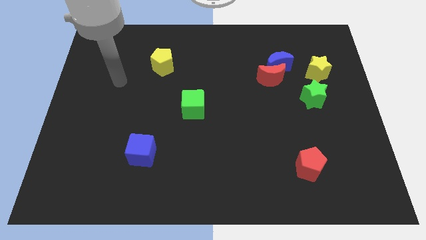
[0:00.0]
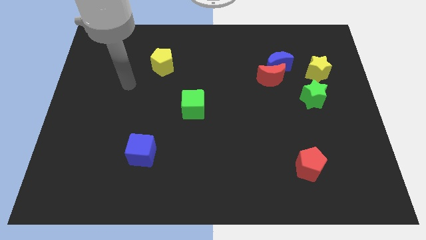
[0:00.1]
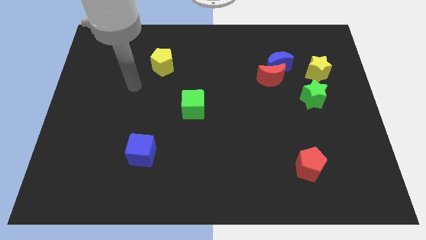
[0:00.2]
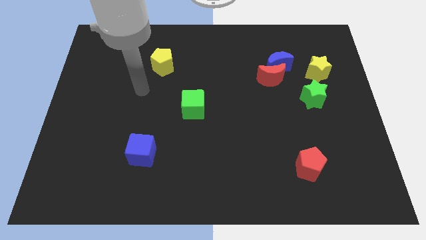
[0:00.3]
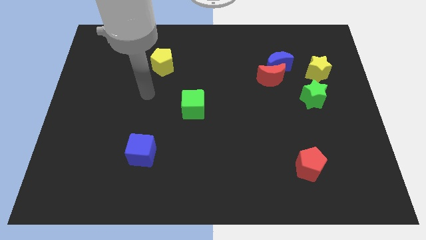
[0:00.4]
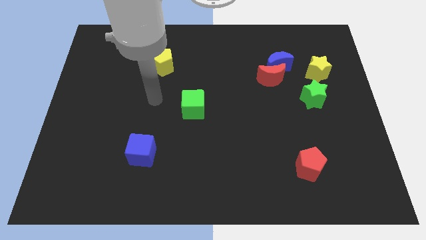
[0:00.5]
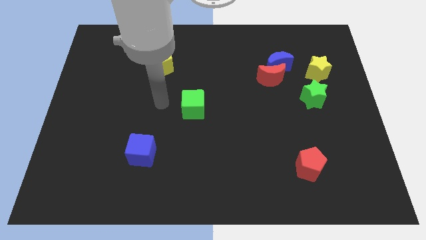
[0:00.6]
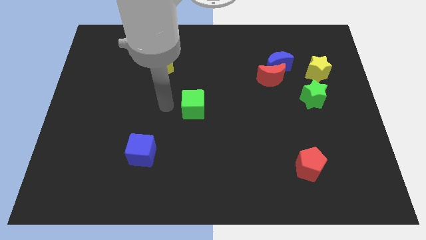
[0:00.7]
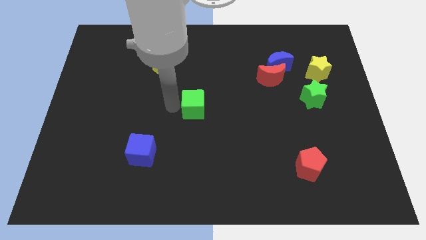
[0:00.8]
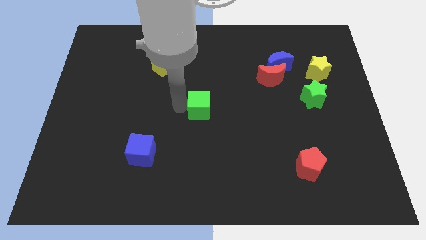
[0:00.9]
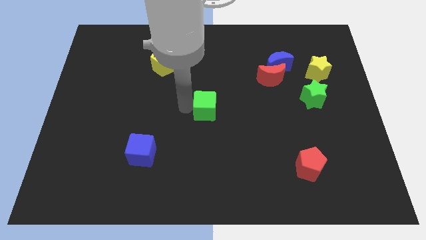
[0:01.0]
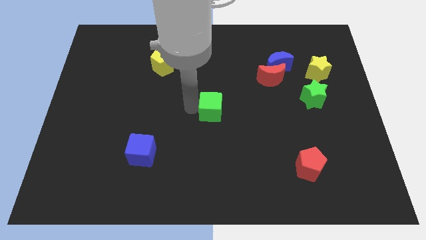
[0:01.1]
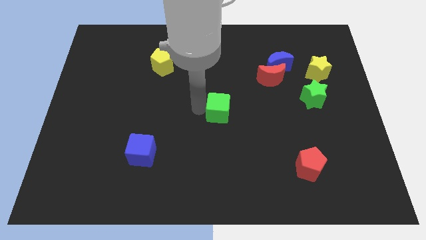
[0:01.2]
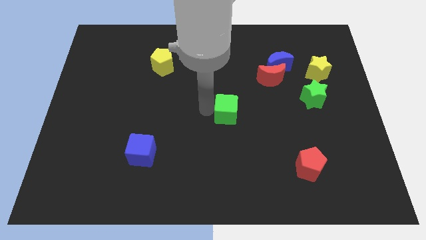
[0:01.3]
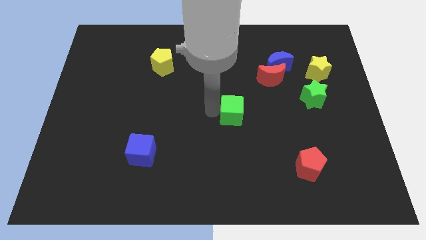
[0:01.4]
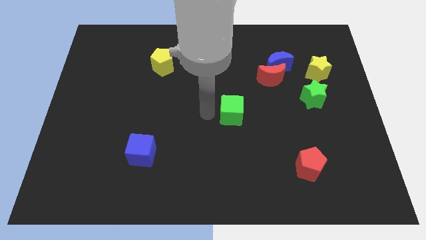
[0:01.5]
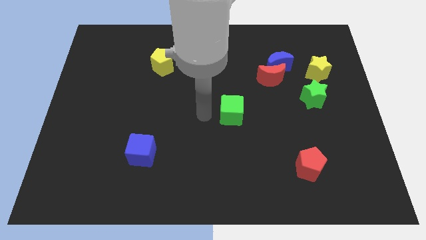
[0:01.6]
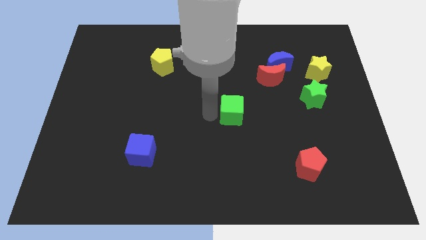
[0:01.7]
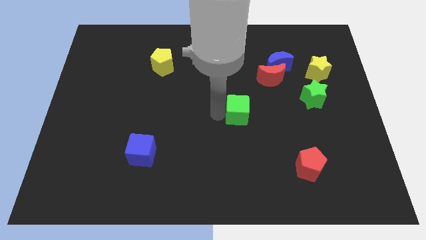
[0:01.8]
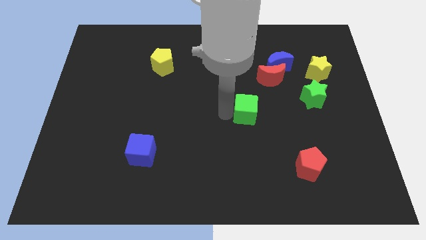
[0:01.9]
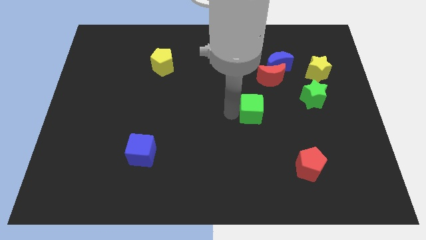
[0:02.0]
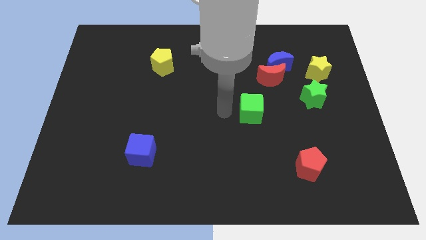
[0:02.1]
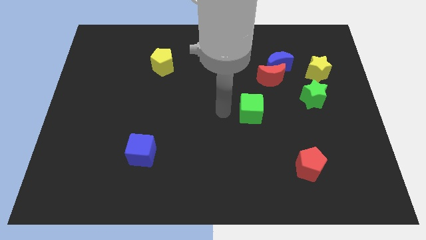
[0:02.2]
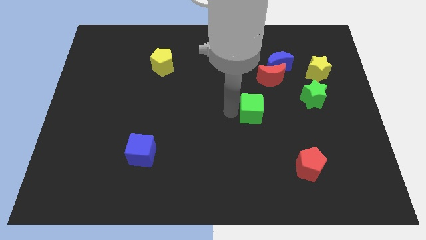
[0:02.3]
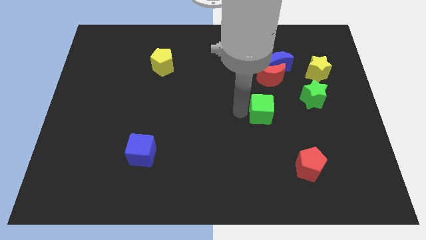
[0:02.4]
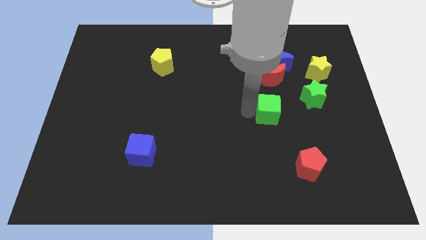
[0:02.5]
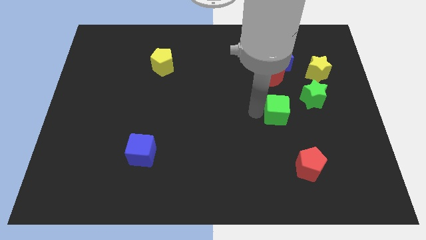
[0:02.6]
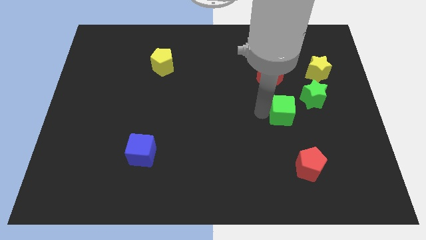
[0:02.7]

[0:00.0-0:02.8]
push the green cube right

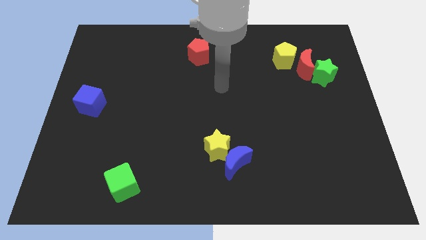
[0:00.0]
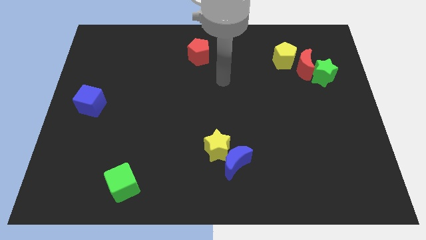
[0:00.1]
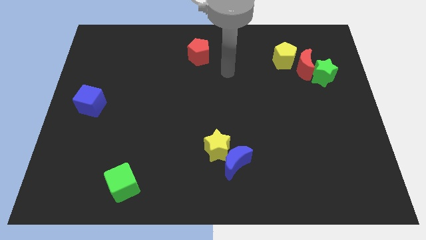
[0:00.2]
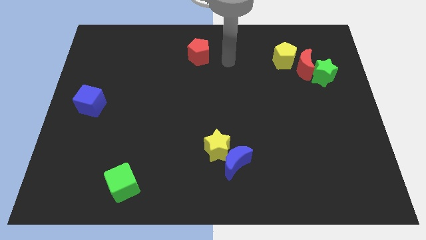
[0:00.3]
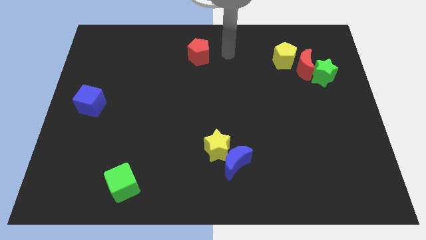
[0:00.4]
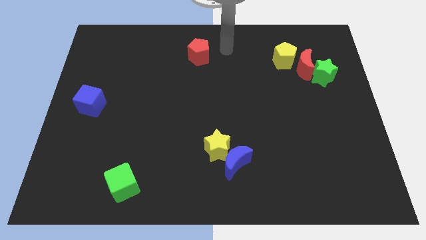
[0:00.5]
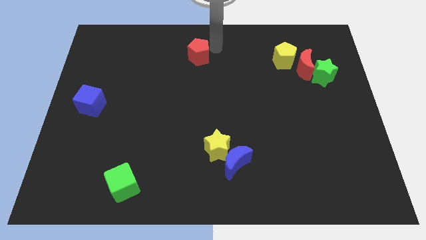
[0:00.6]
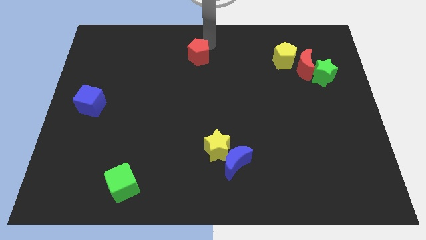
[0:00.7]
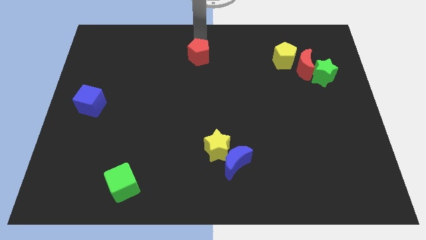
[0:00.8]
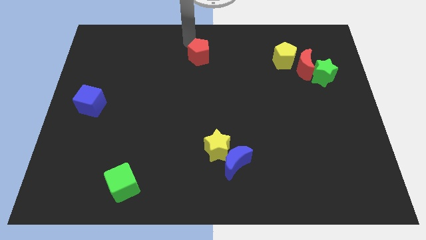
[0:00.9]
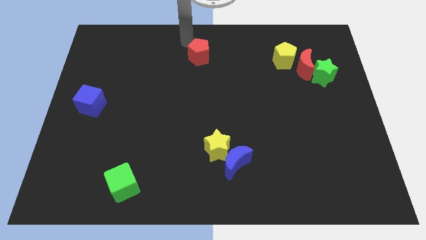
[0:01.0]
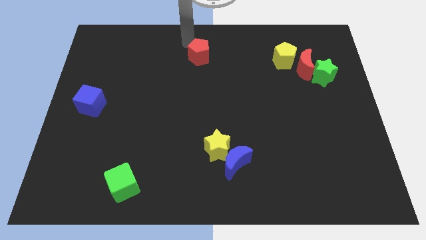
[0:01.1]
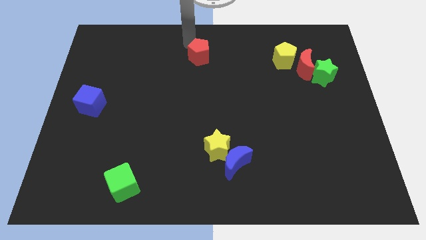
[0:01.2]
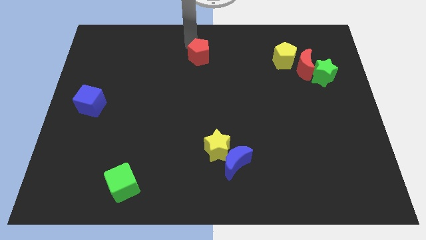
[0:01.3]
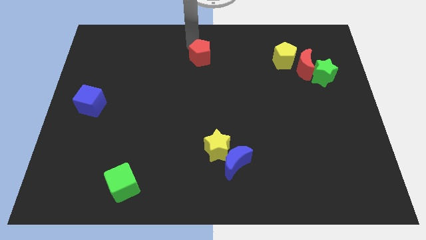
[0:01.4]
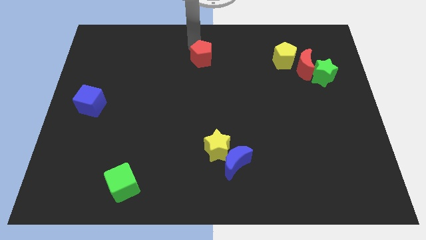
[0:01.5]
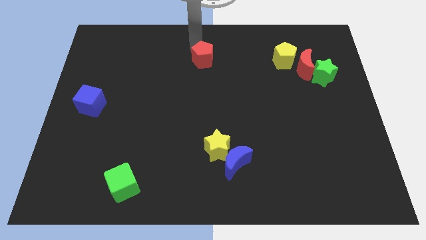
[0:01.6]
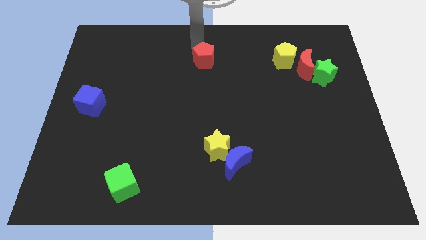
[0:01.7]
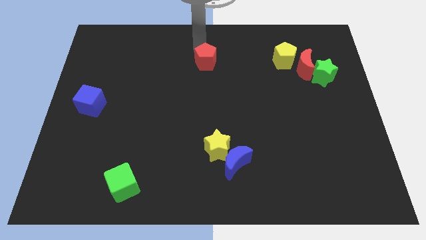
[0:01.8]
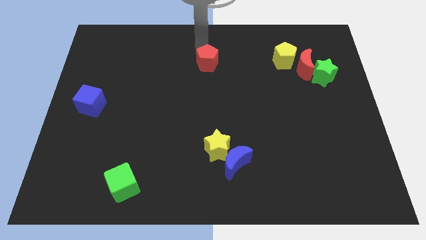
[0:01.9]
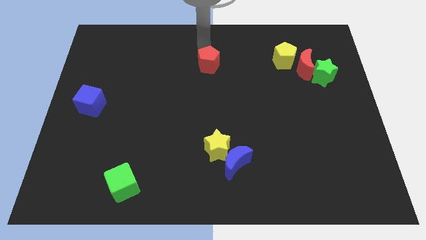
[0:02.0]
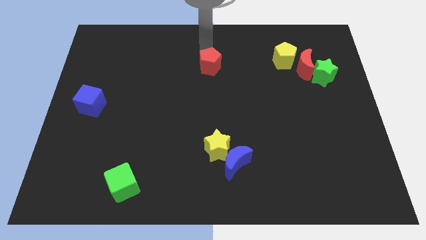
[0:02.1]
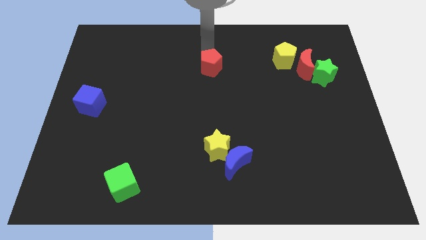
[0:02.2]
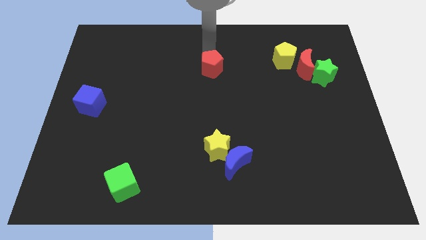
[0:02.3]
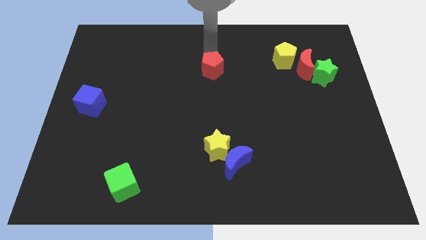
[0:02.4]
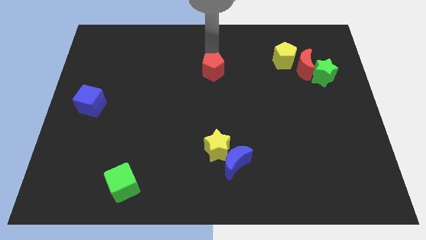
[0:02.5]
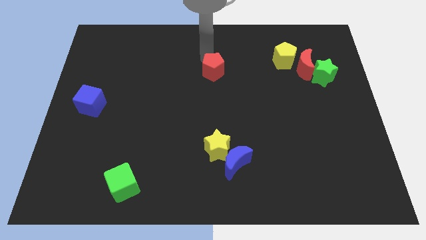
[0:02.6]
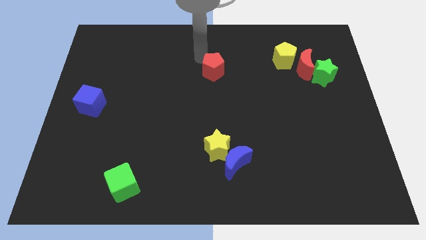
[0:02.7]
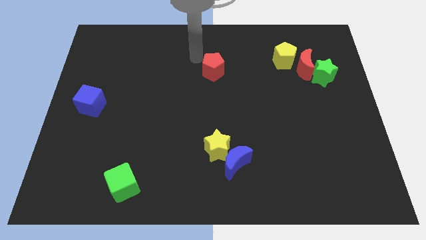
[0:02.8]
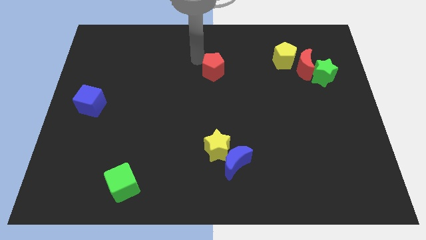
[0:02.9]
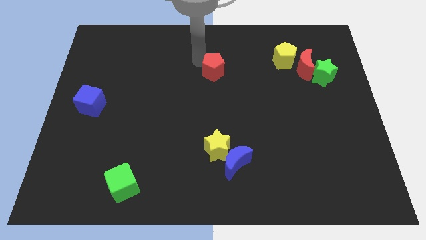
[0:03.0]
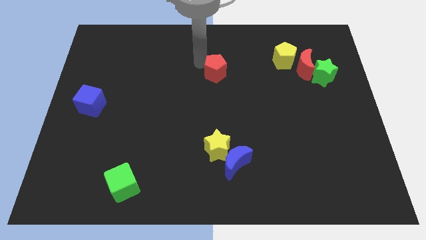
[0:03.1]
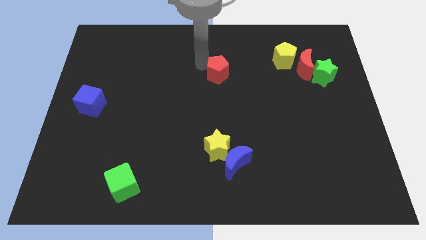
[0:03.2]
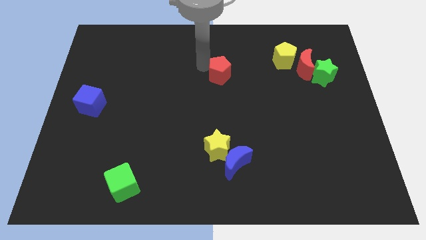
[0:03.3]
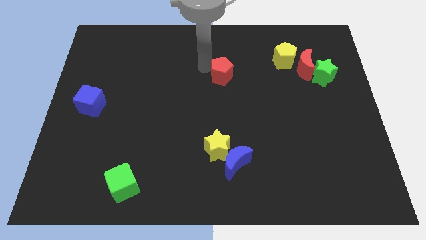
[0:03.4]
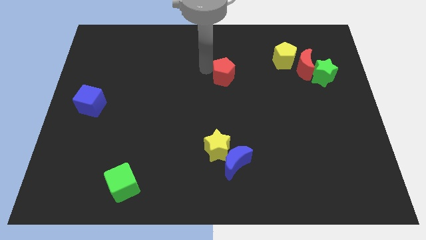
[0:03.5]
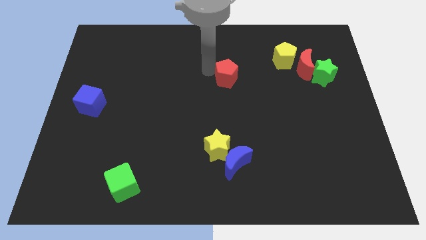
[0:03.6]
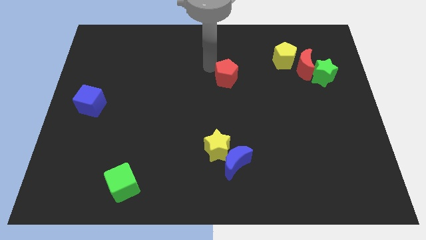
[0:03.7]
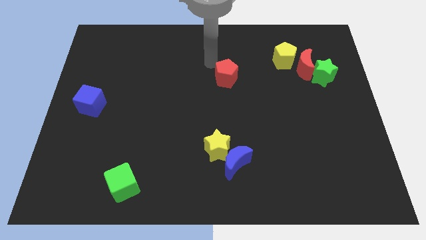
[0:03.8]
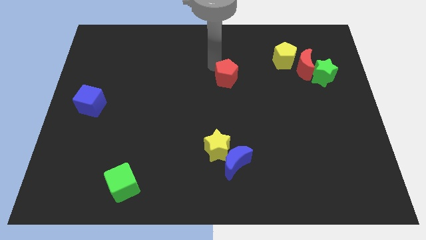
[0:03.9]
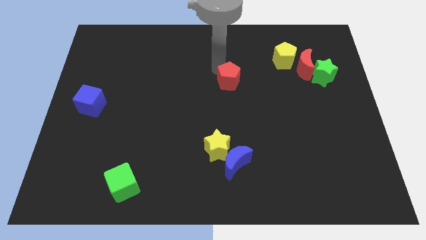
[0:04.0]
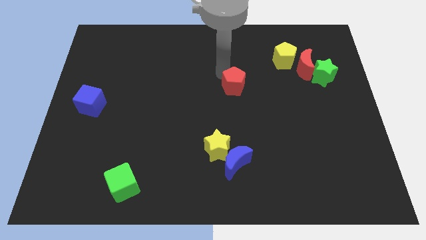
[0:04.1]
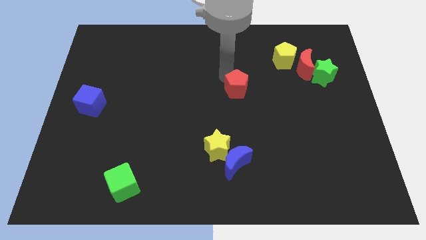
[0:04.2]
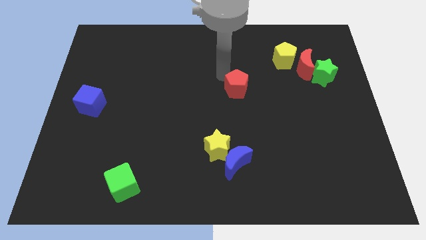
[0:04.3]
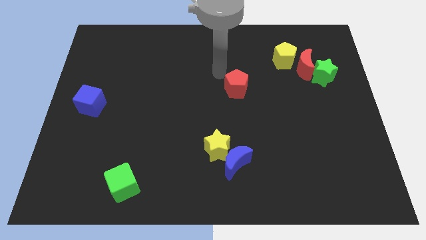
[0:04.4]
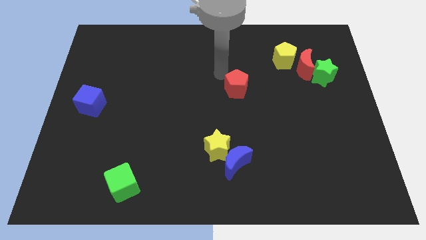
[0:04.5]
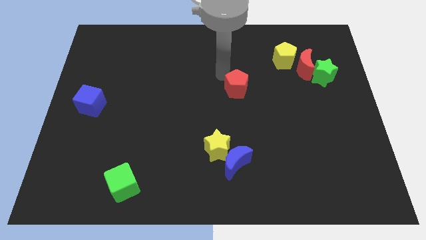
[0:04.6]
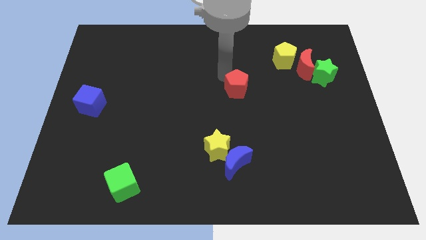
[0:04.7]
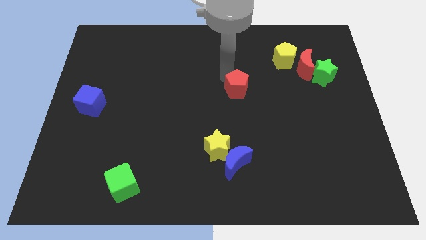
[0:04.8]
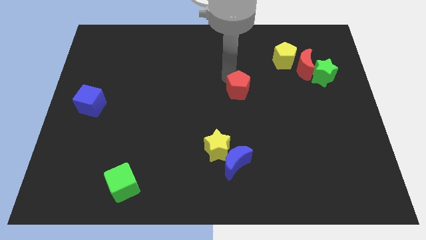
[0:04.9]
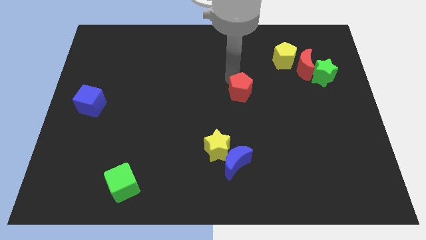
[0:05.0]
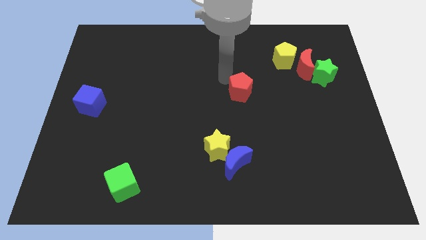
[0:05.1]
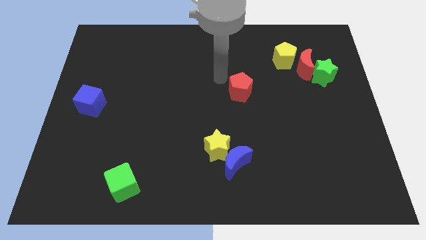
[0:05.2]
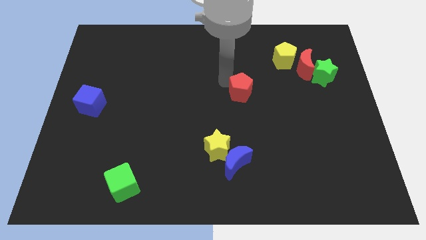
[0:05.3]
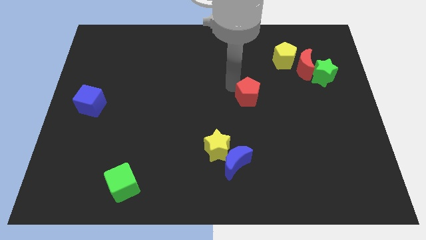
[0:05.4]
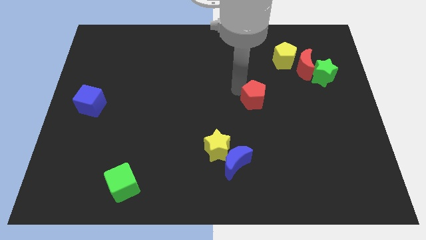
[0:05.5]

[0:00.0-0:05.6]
slide the red pentagon downwards and to the right diagonally
